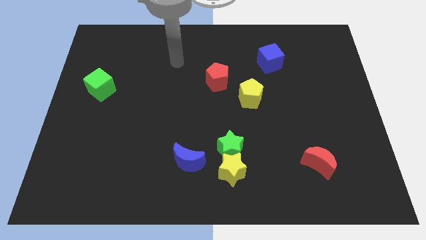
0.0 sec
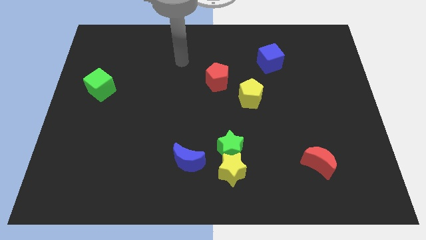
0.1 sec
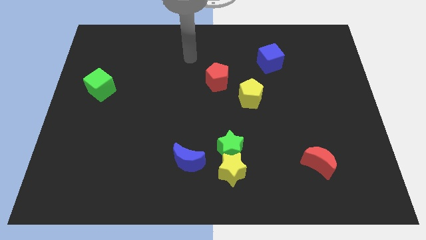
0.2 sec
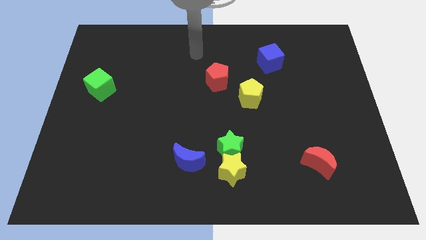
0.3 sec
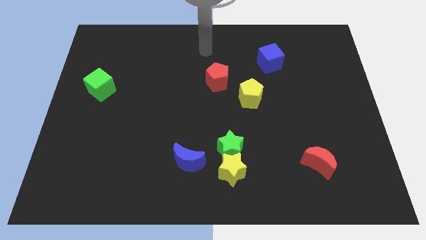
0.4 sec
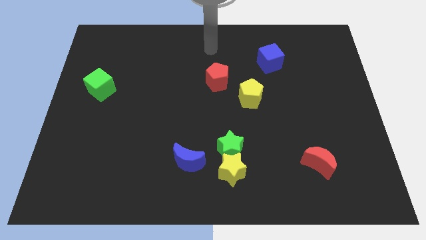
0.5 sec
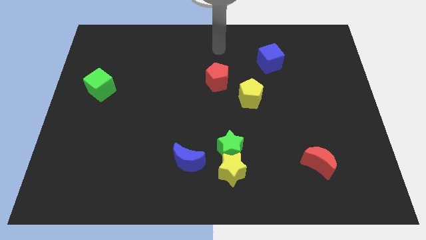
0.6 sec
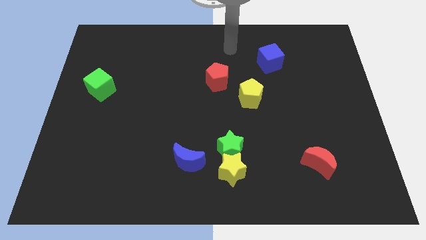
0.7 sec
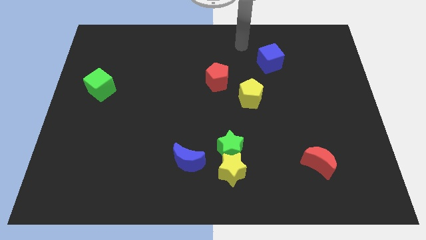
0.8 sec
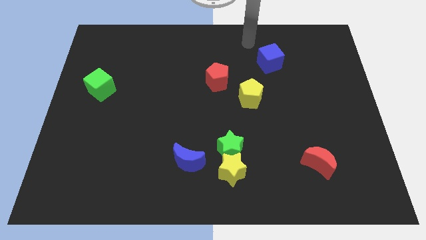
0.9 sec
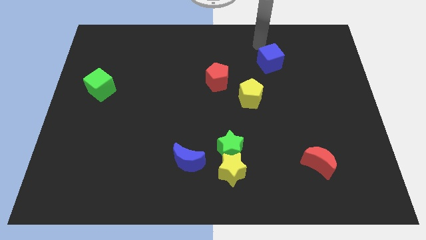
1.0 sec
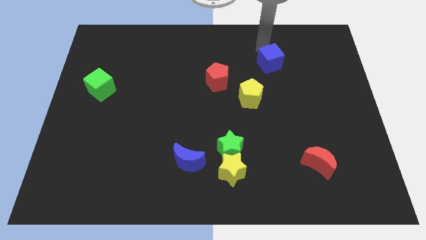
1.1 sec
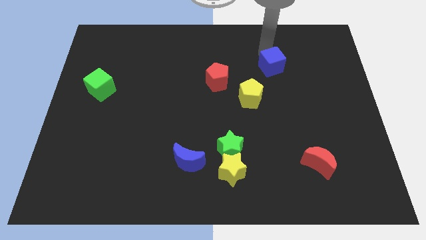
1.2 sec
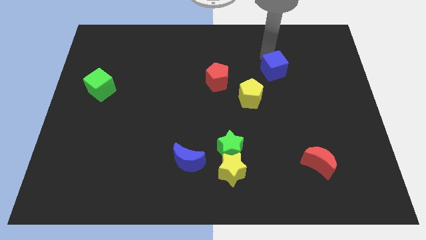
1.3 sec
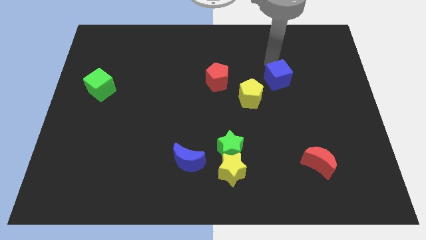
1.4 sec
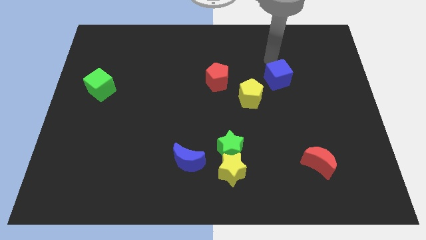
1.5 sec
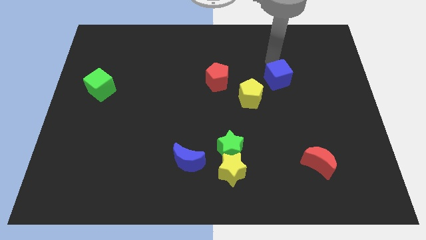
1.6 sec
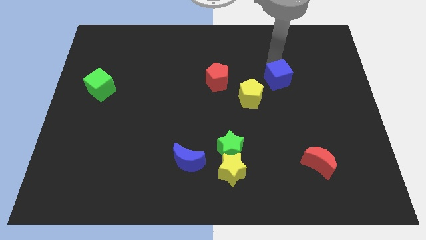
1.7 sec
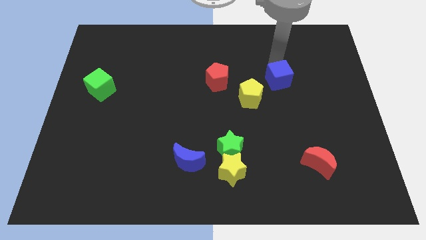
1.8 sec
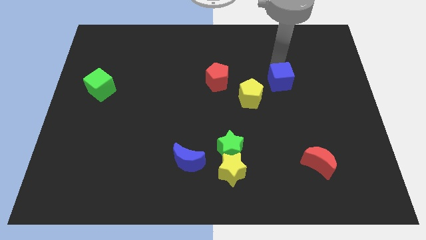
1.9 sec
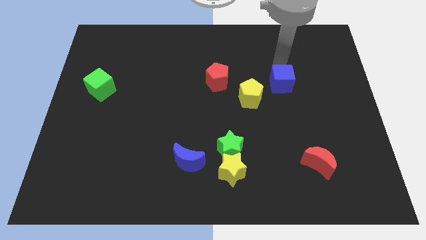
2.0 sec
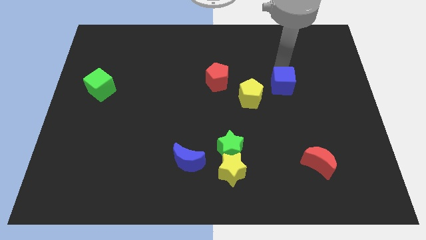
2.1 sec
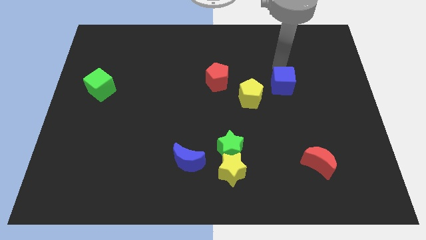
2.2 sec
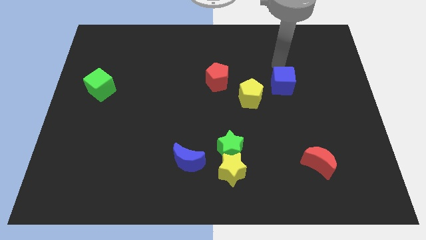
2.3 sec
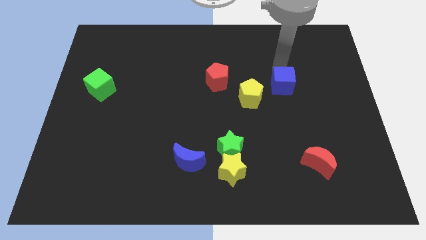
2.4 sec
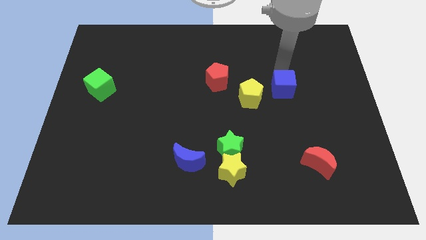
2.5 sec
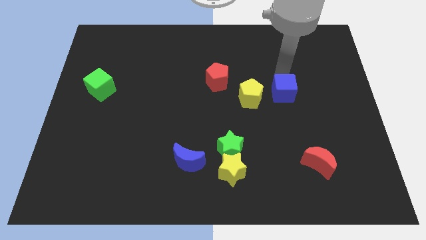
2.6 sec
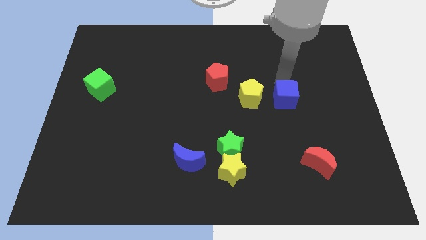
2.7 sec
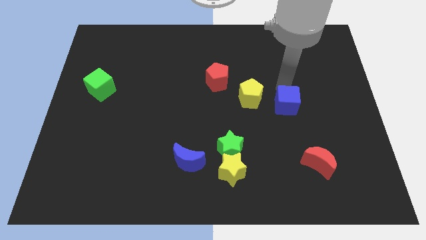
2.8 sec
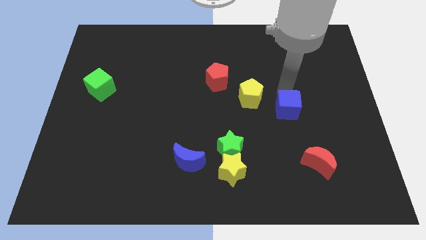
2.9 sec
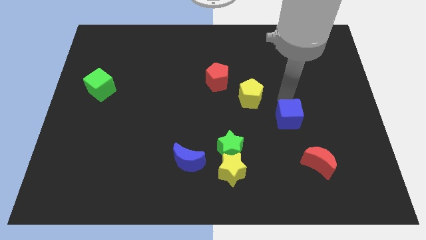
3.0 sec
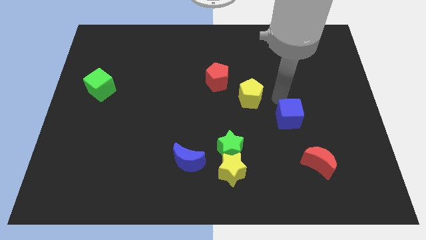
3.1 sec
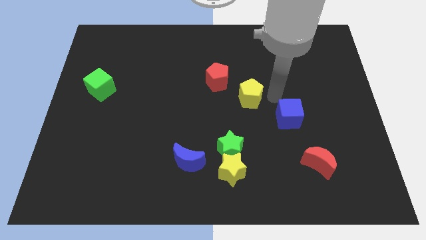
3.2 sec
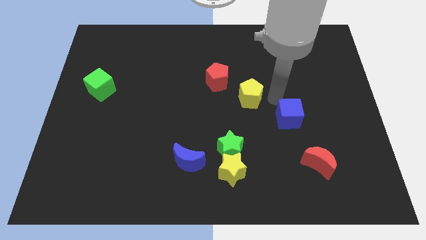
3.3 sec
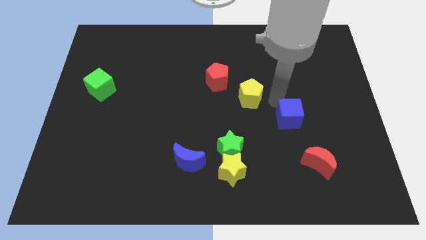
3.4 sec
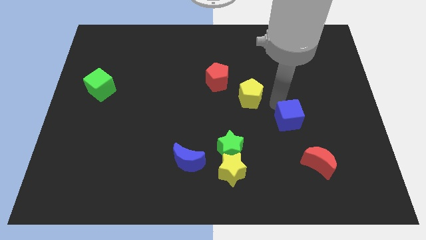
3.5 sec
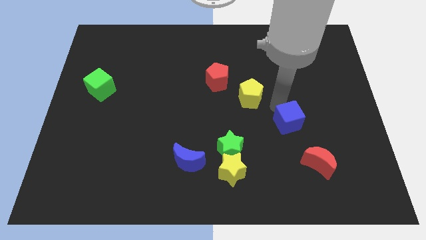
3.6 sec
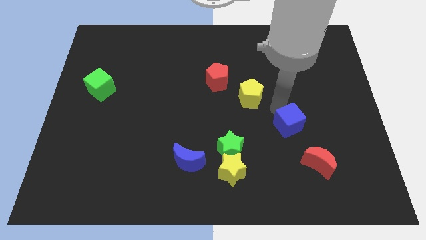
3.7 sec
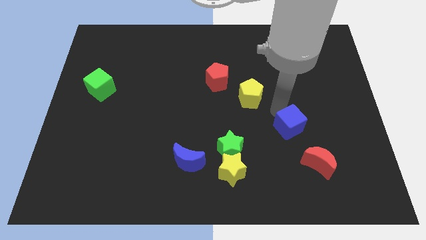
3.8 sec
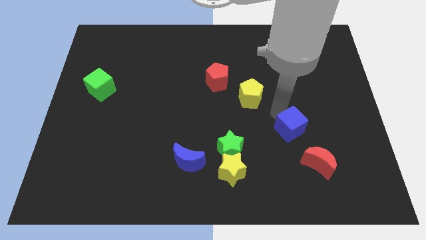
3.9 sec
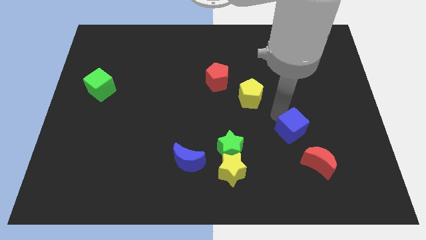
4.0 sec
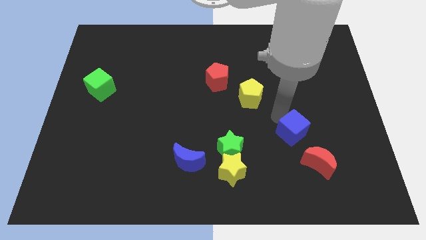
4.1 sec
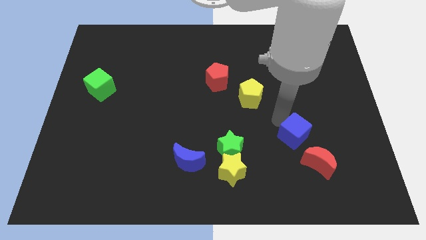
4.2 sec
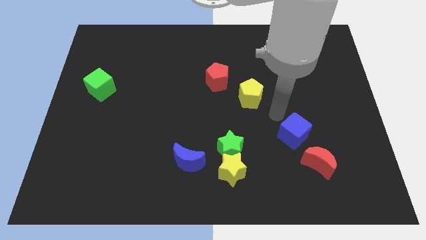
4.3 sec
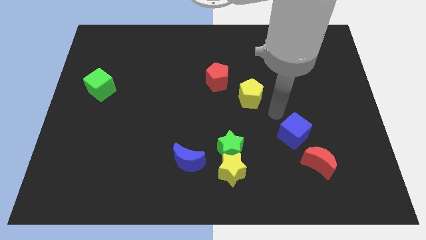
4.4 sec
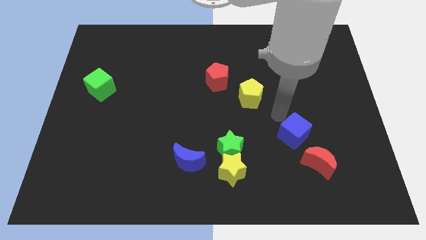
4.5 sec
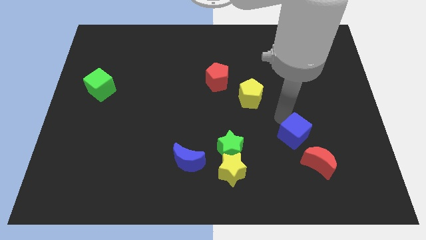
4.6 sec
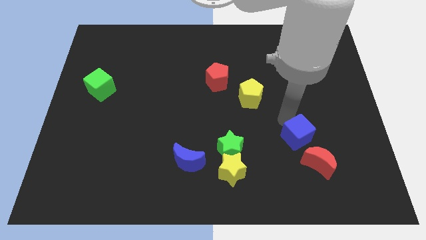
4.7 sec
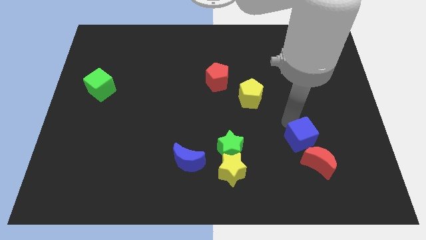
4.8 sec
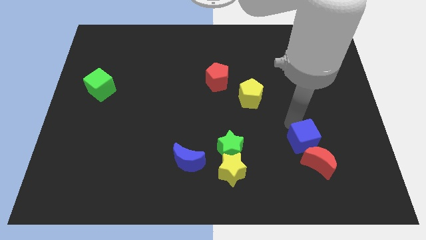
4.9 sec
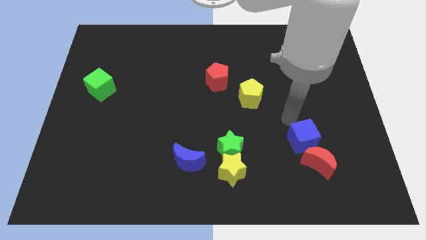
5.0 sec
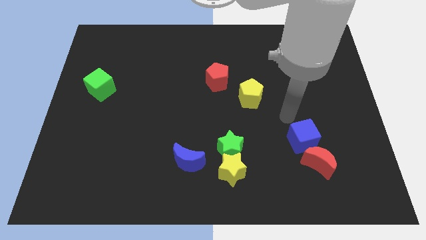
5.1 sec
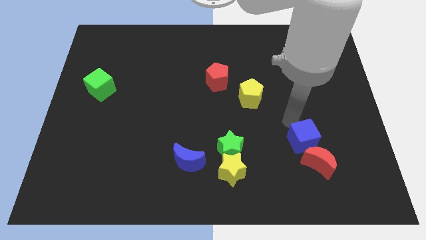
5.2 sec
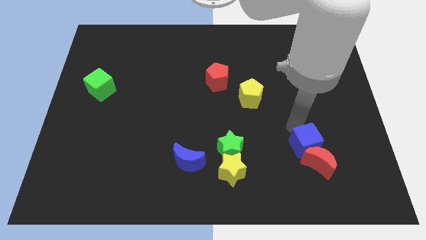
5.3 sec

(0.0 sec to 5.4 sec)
move the blue cube next to the red moon

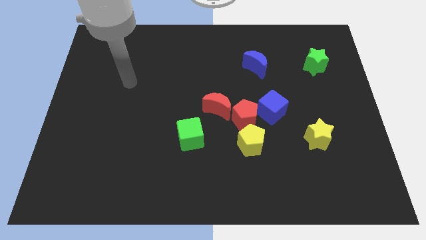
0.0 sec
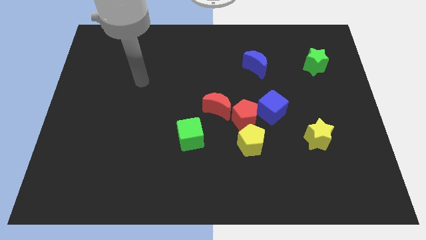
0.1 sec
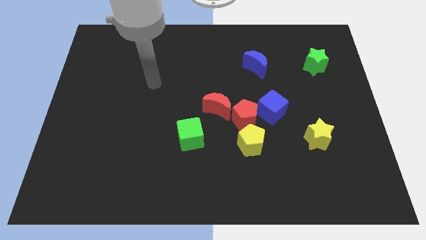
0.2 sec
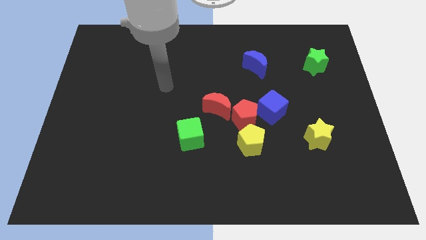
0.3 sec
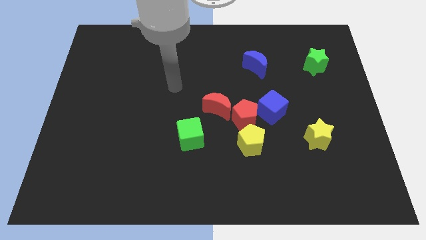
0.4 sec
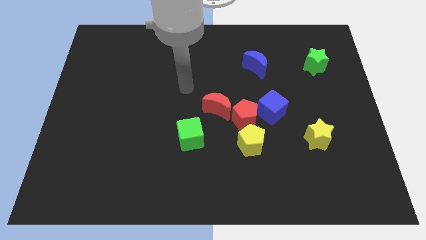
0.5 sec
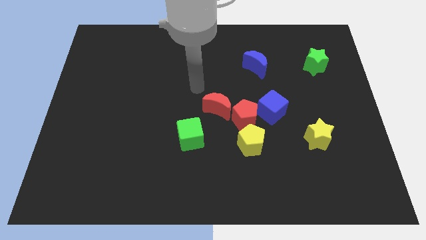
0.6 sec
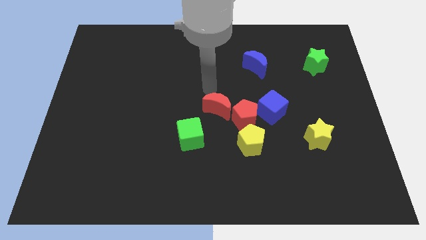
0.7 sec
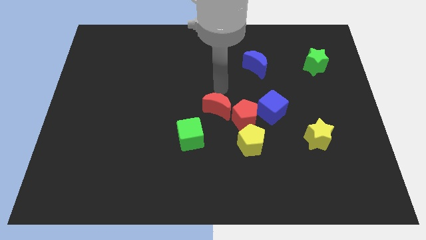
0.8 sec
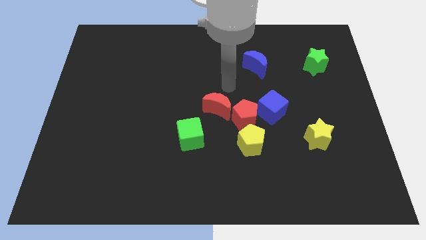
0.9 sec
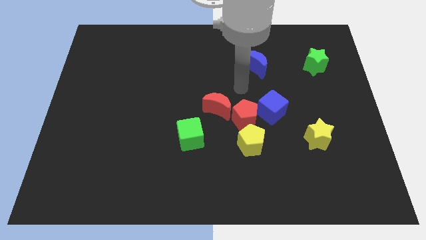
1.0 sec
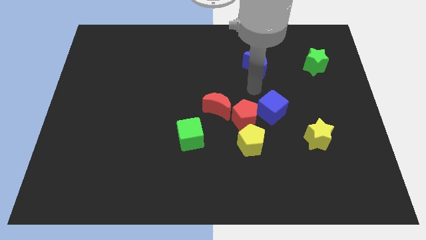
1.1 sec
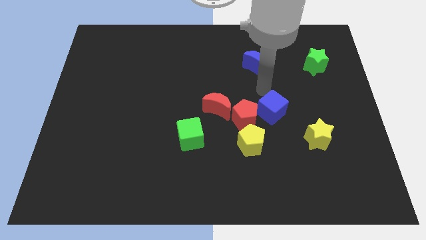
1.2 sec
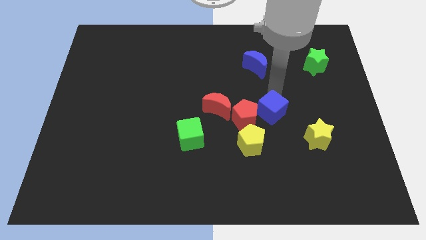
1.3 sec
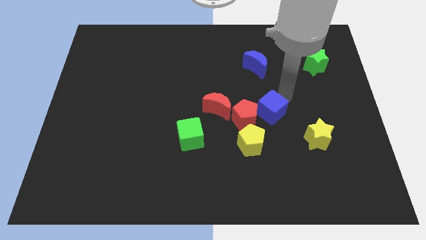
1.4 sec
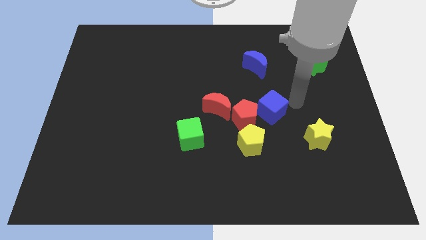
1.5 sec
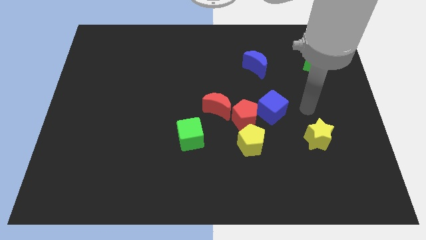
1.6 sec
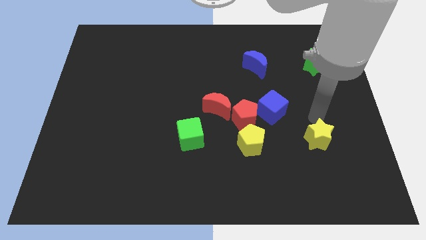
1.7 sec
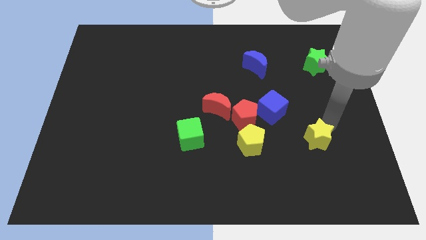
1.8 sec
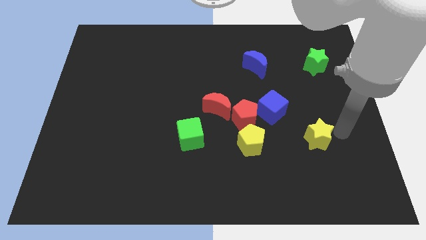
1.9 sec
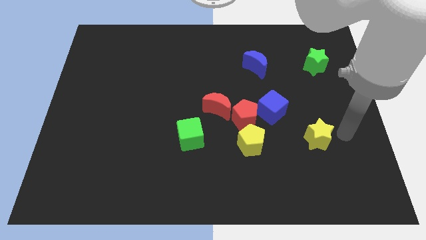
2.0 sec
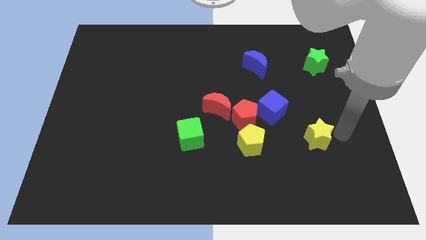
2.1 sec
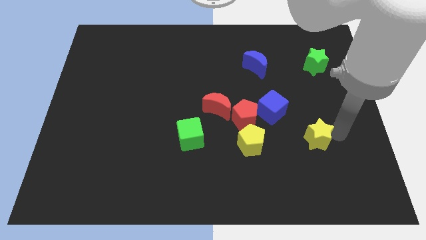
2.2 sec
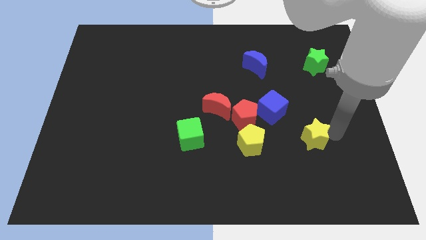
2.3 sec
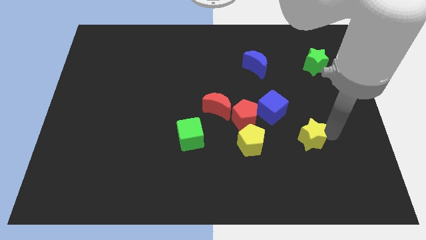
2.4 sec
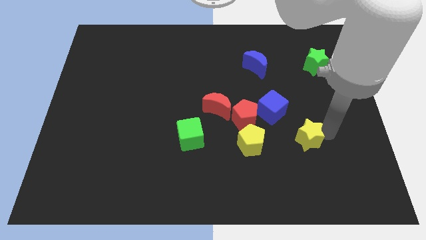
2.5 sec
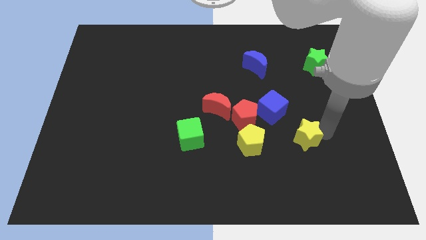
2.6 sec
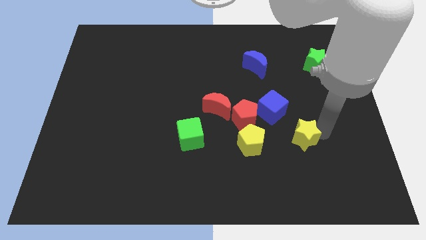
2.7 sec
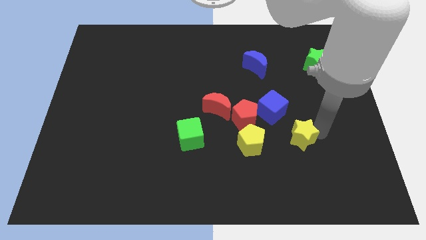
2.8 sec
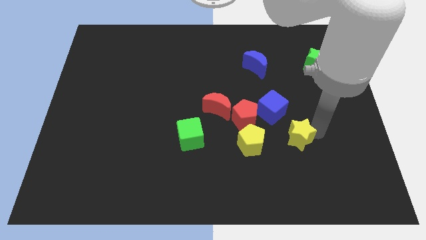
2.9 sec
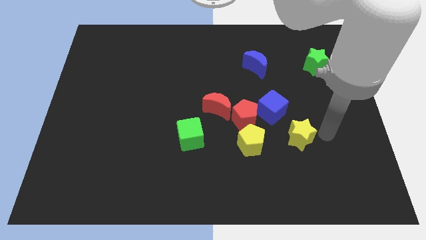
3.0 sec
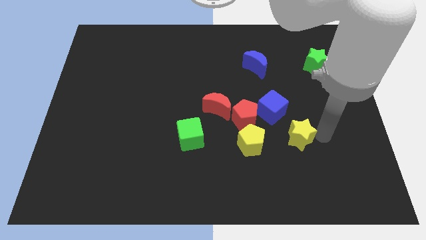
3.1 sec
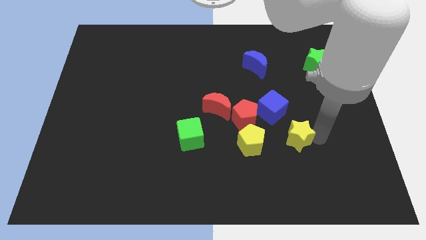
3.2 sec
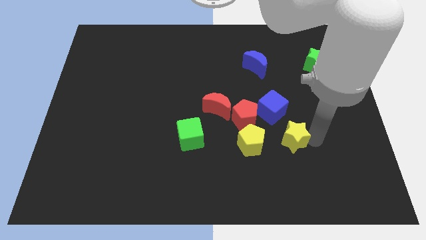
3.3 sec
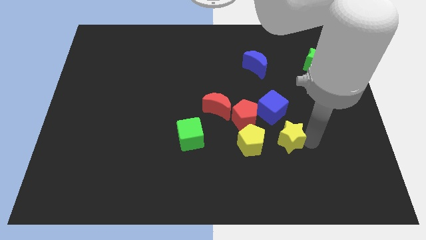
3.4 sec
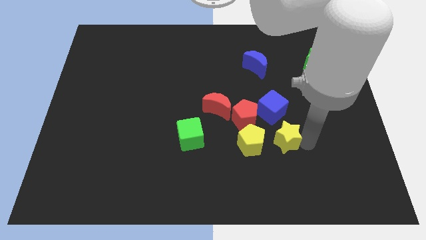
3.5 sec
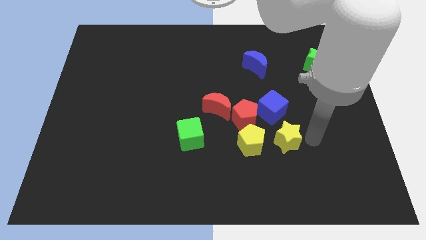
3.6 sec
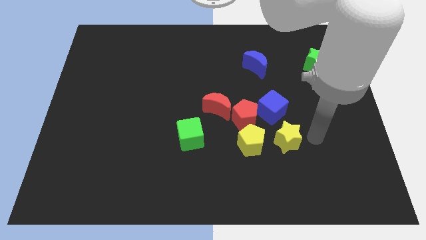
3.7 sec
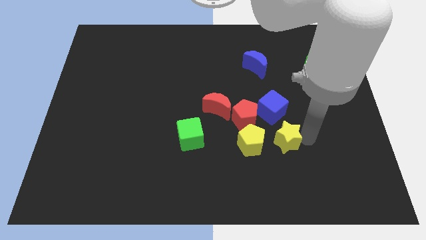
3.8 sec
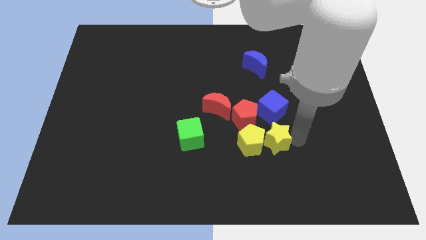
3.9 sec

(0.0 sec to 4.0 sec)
push the yellow star towards the yellow pentagon
